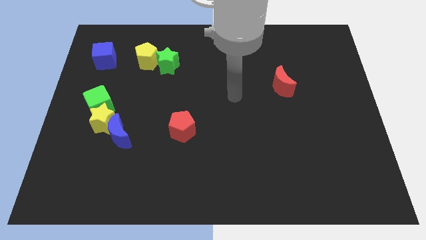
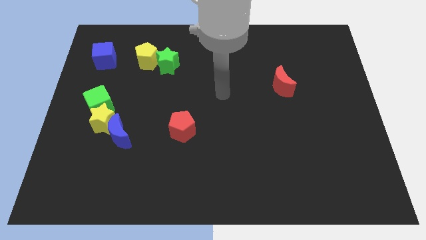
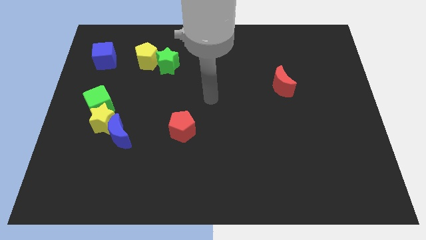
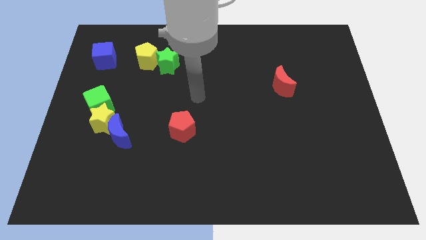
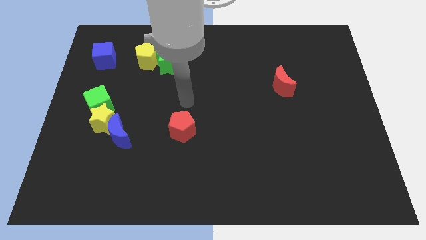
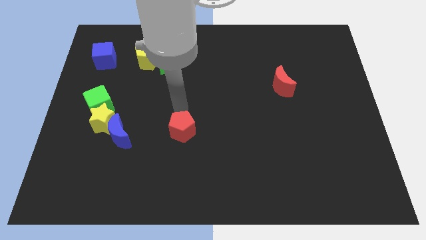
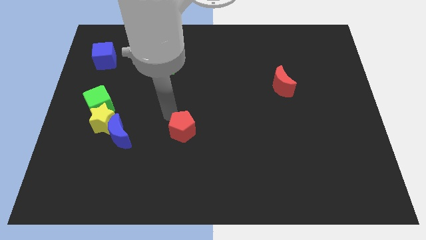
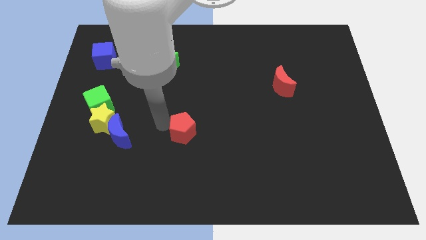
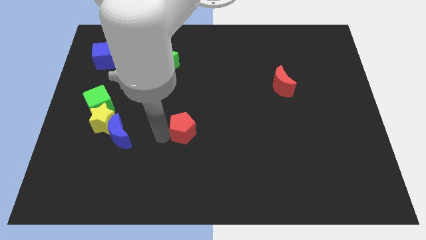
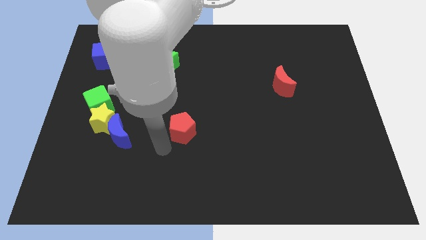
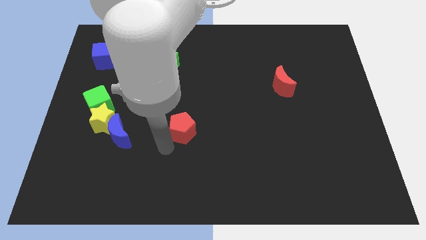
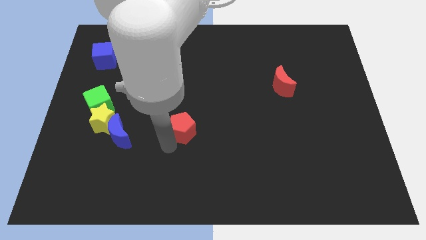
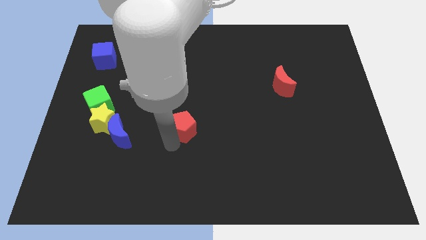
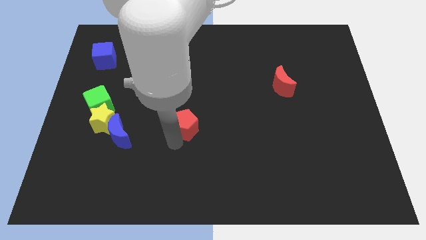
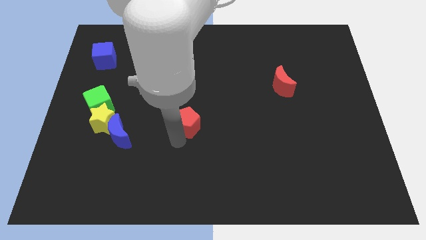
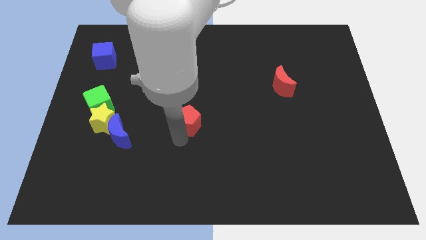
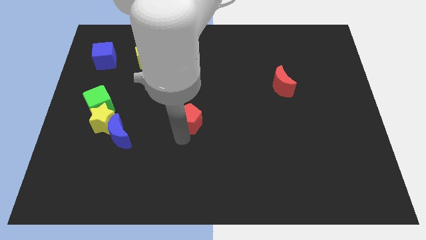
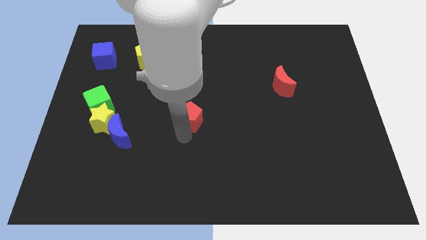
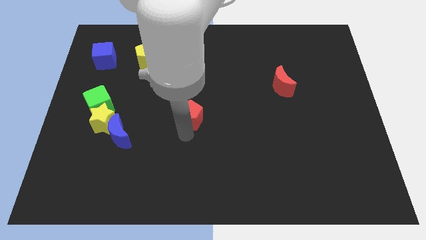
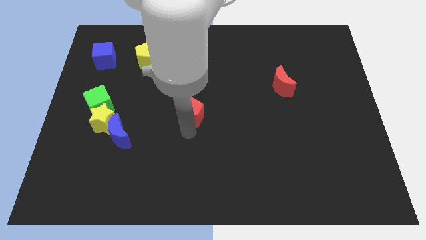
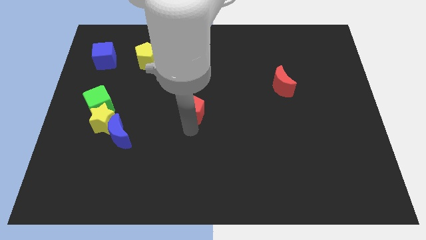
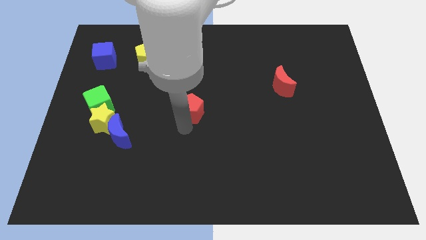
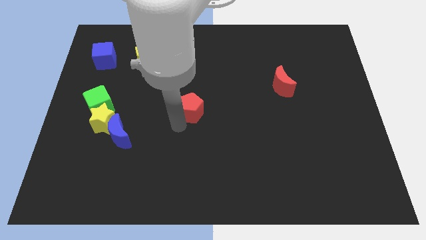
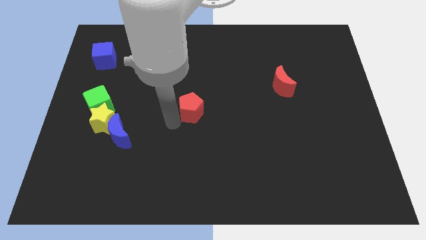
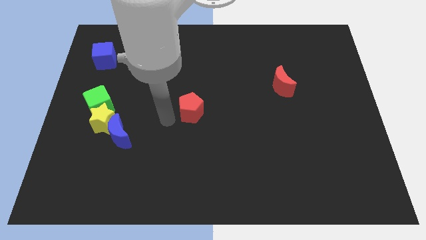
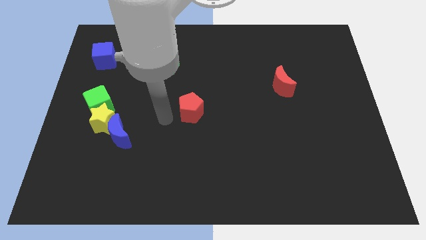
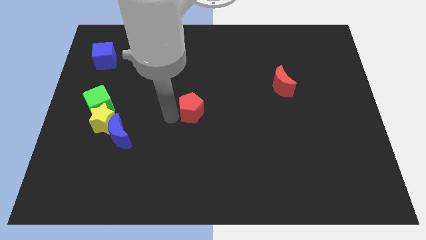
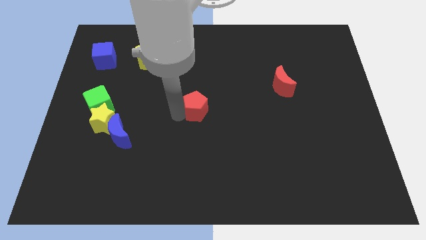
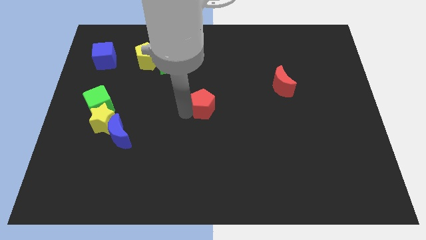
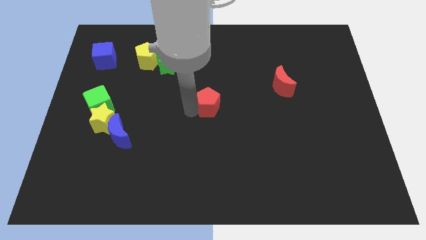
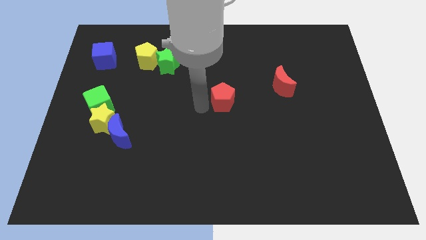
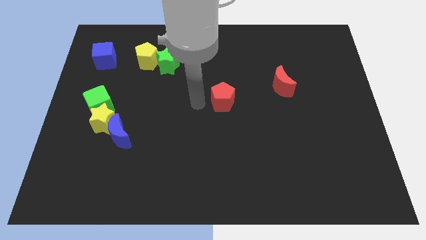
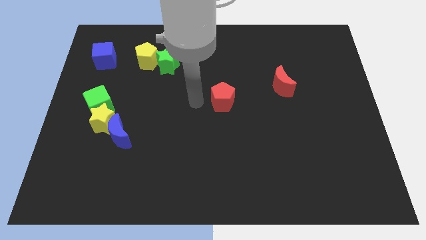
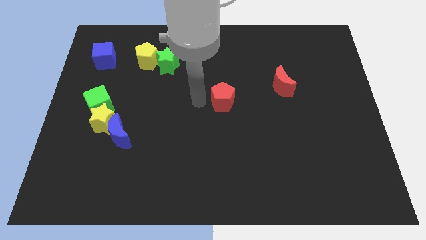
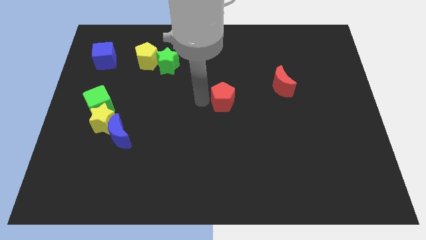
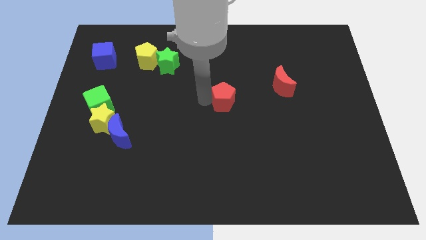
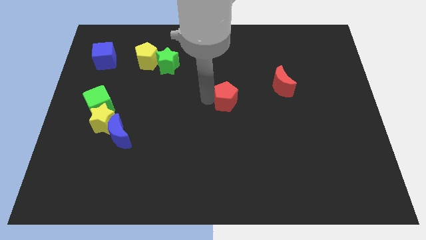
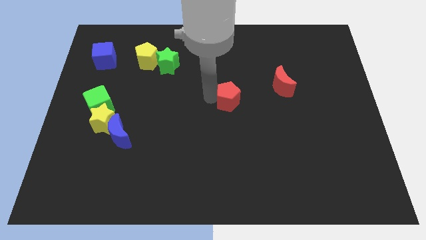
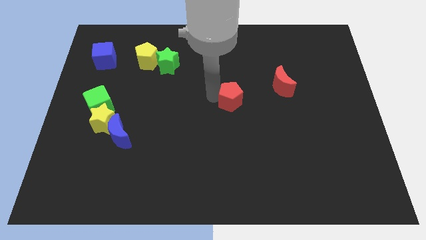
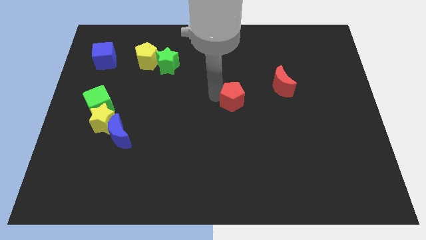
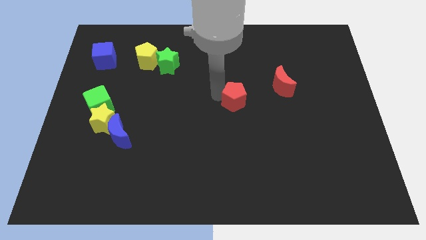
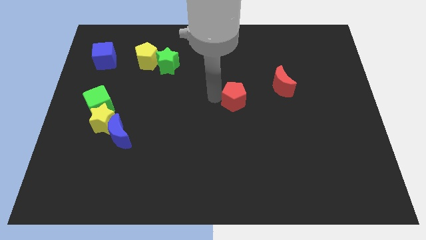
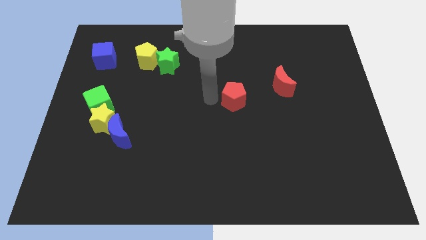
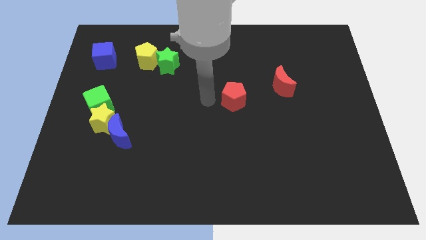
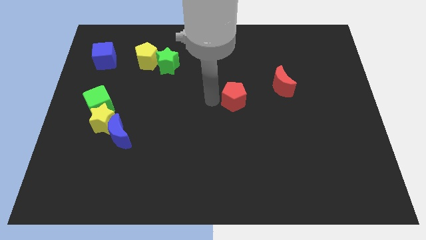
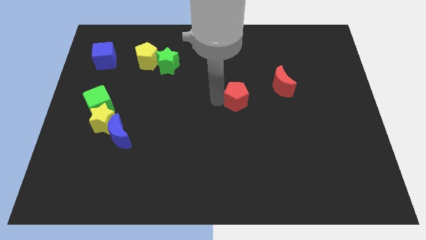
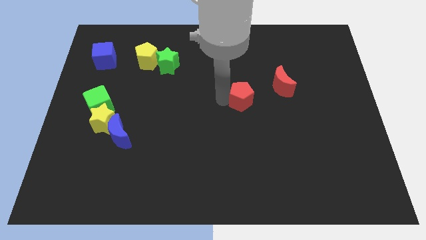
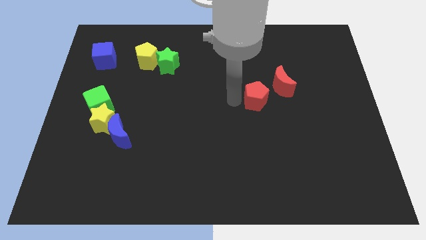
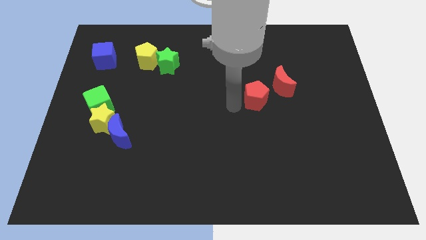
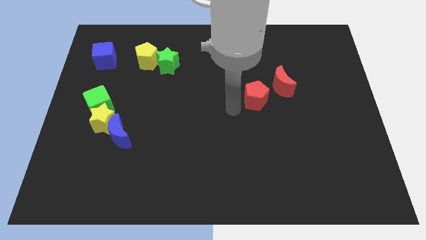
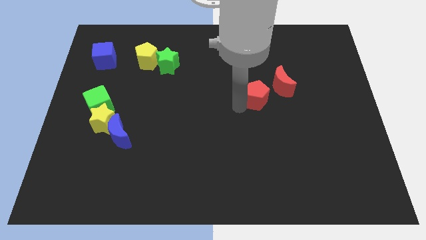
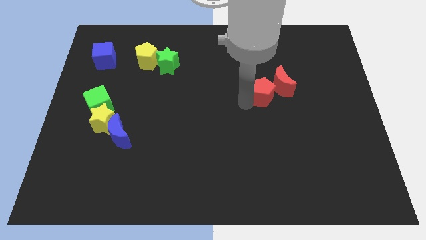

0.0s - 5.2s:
put the red pentagon next to the red moon

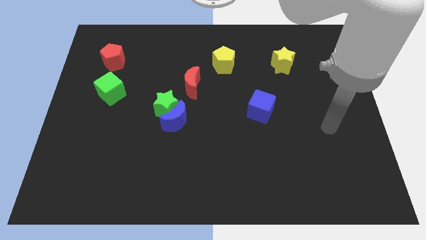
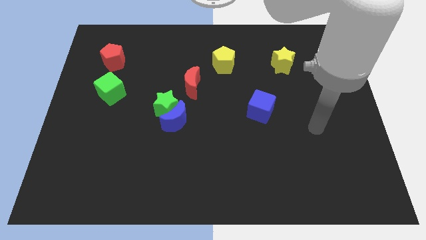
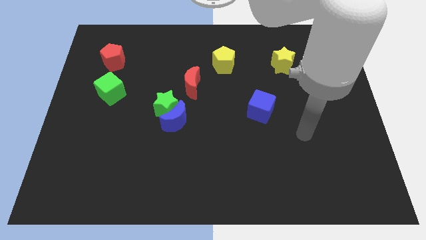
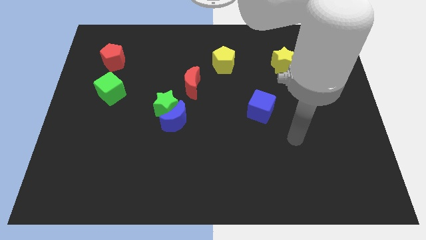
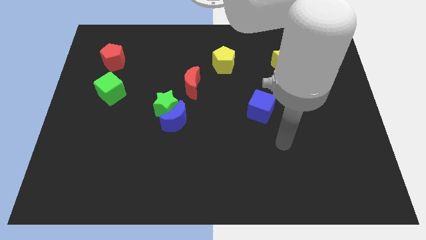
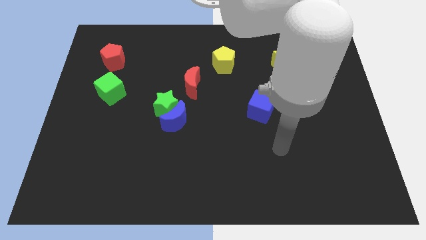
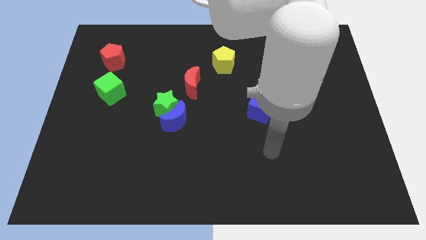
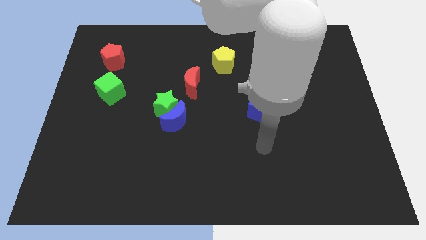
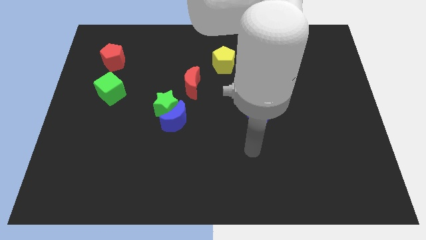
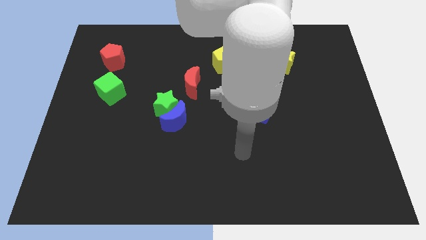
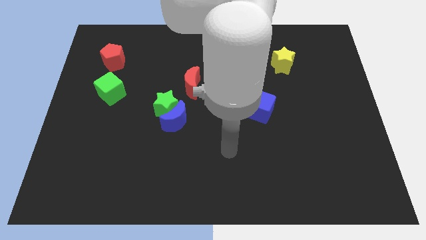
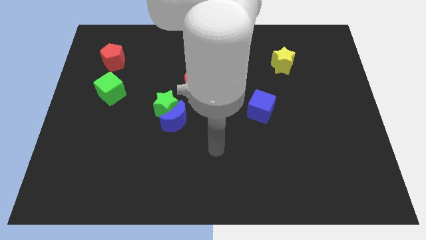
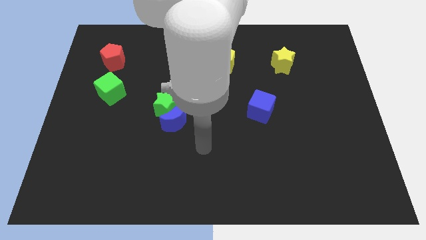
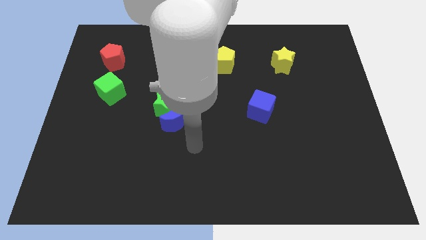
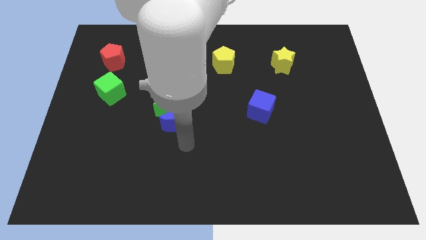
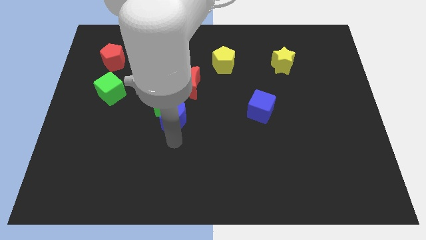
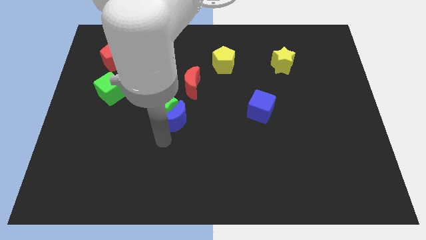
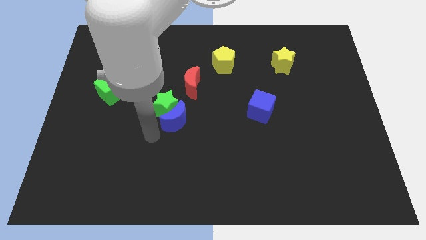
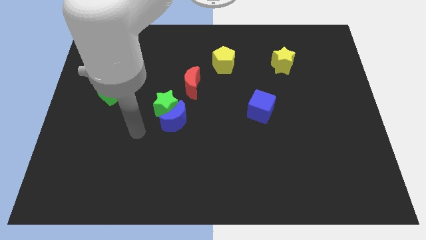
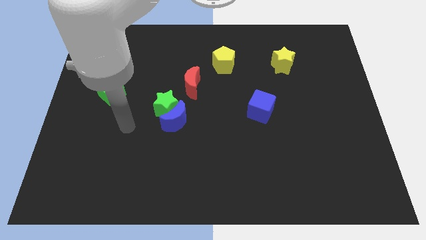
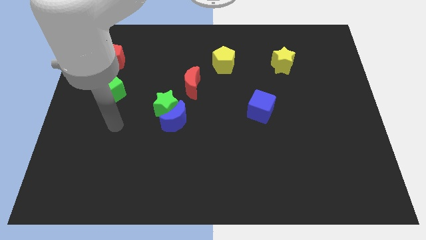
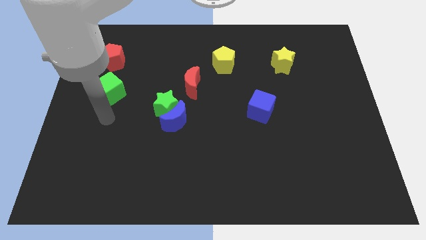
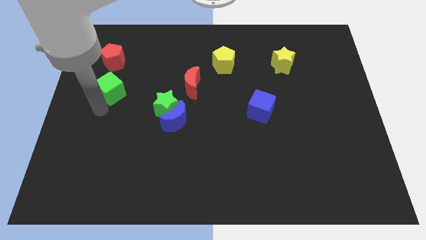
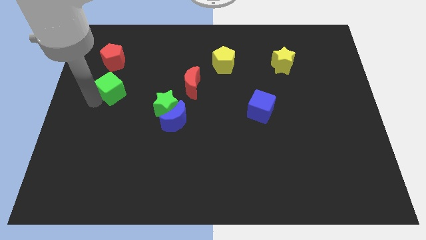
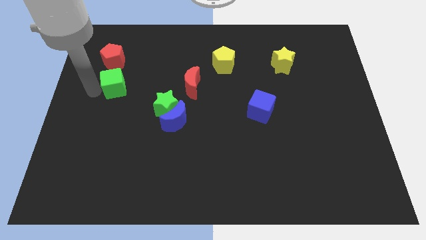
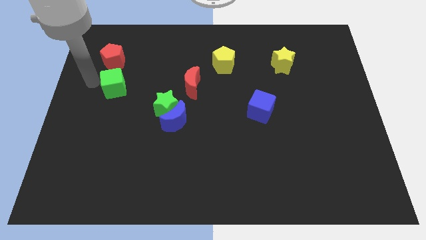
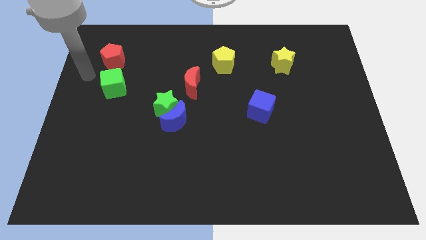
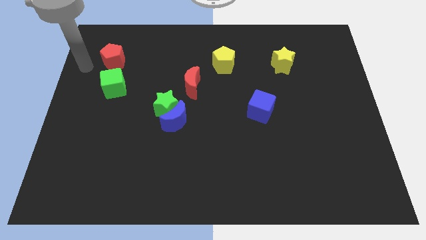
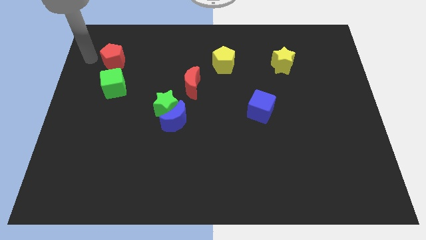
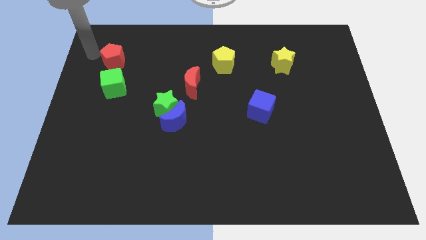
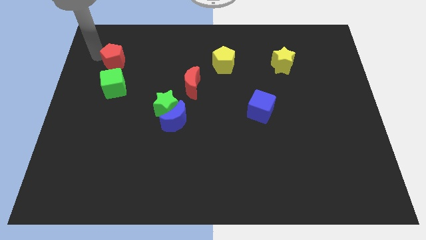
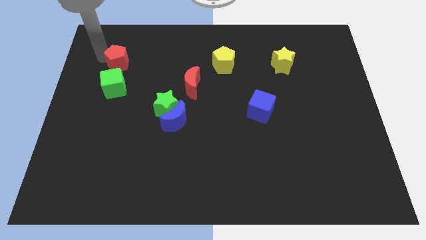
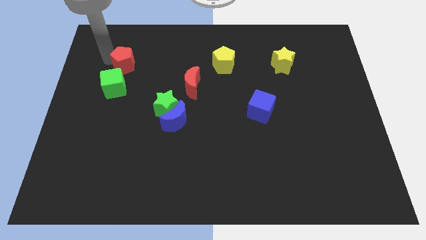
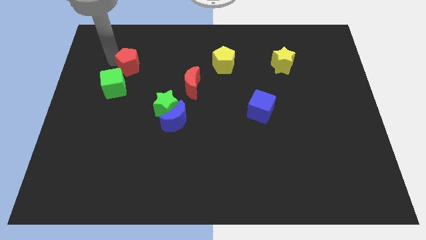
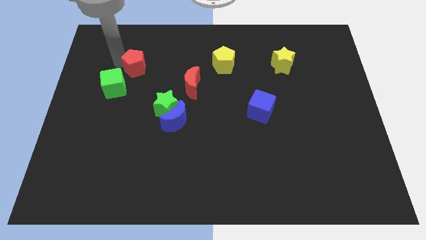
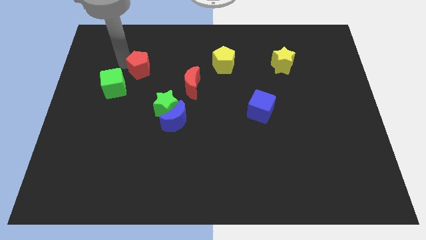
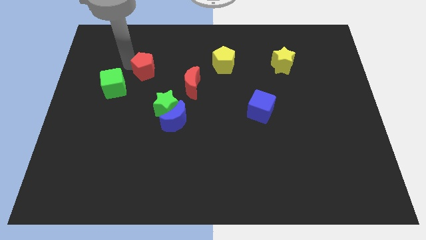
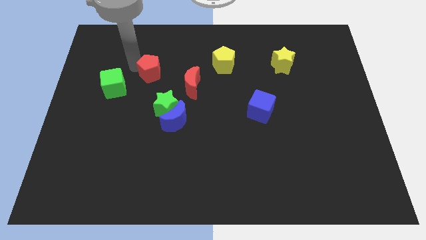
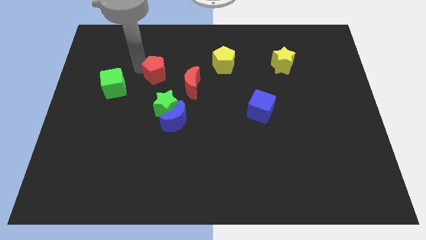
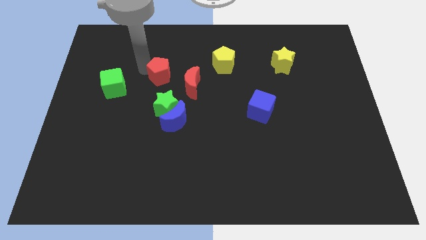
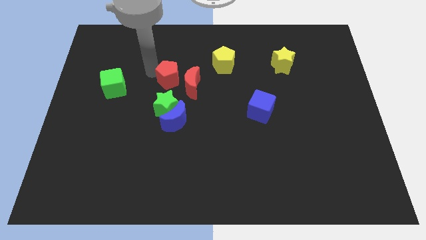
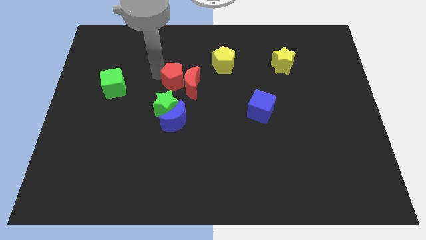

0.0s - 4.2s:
slide the red pentagon to the red moon
